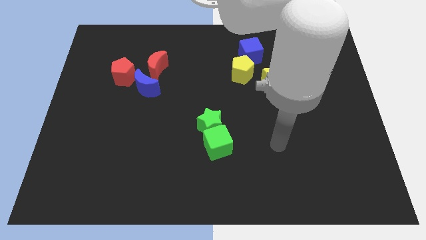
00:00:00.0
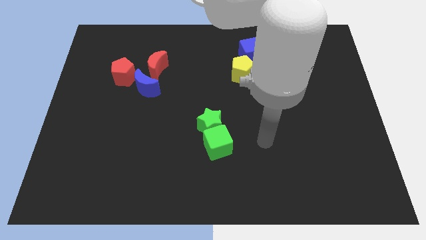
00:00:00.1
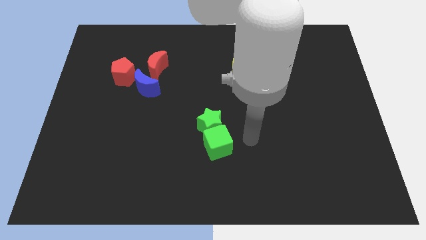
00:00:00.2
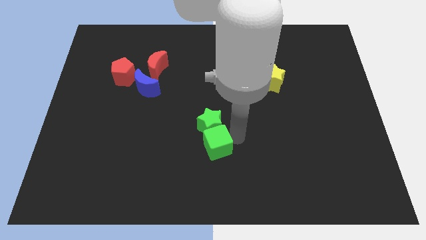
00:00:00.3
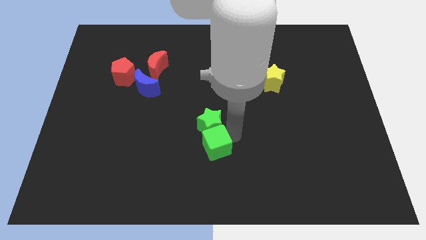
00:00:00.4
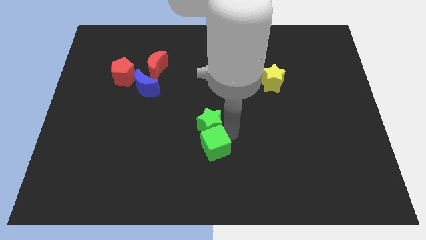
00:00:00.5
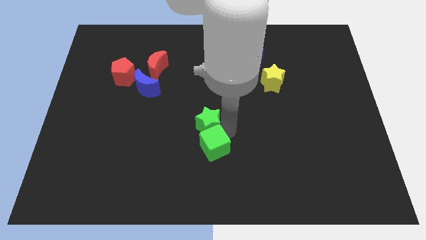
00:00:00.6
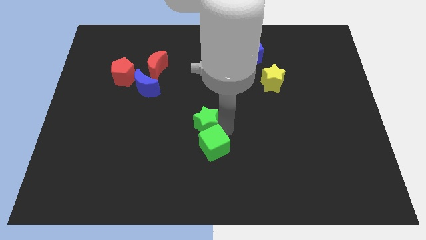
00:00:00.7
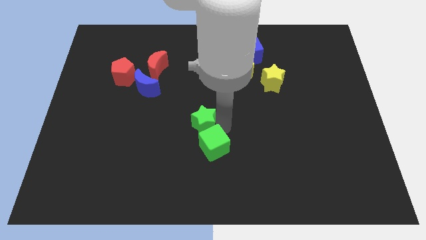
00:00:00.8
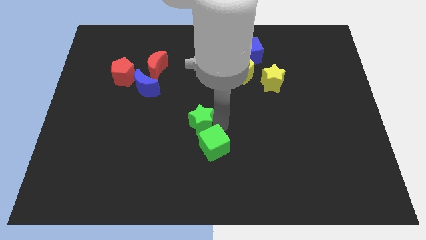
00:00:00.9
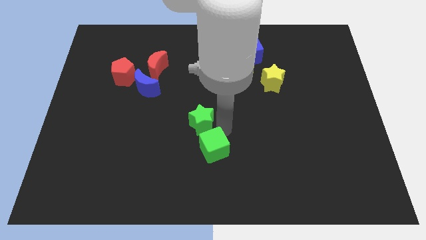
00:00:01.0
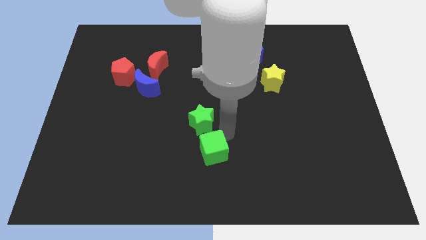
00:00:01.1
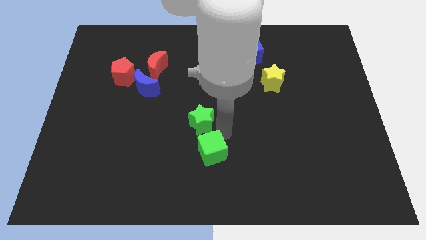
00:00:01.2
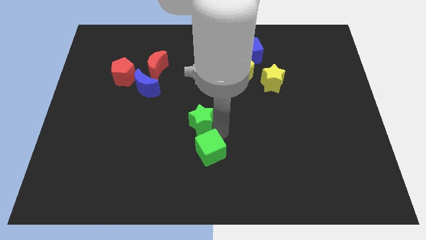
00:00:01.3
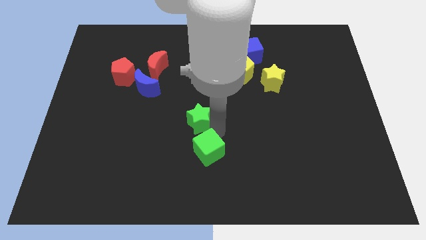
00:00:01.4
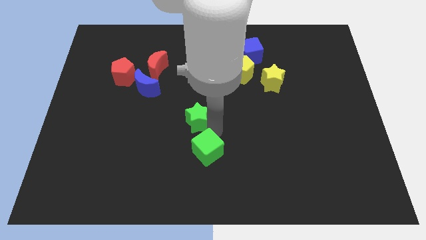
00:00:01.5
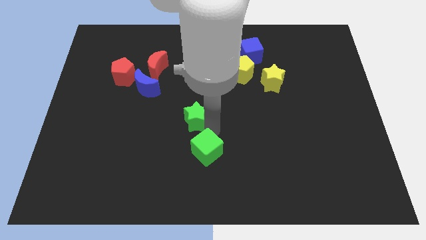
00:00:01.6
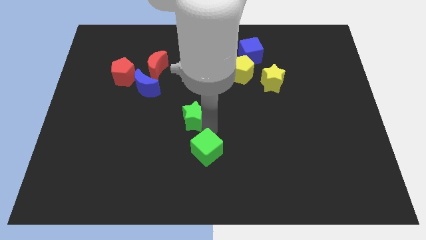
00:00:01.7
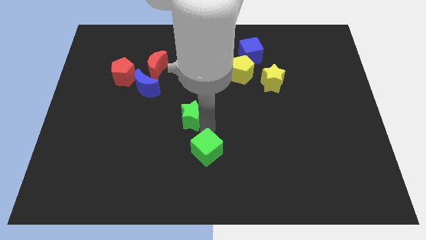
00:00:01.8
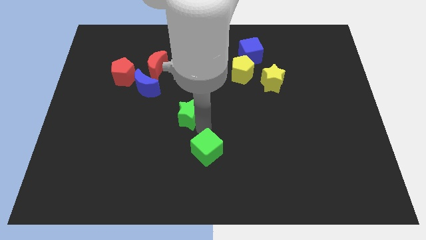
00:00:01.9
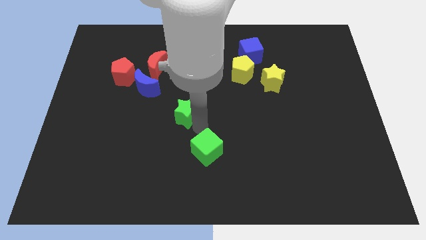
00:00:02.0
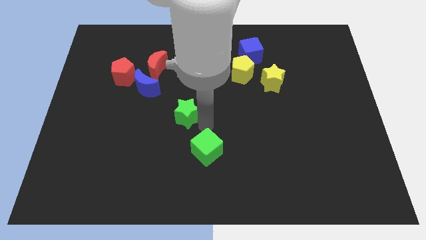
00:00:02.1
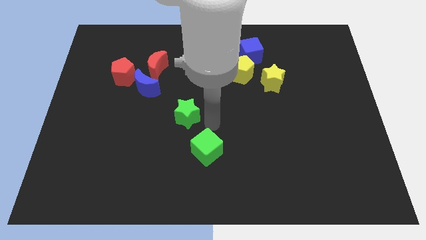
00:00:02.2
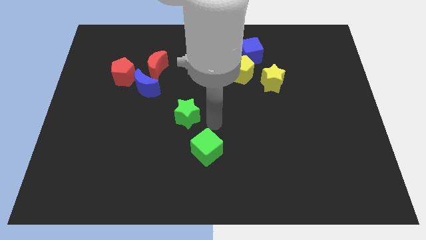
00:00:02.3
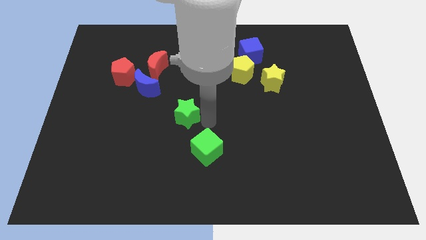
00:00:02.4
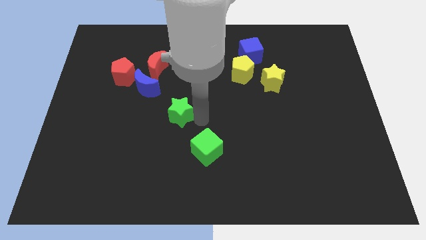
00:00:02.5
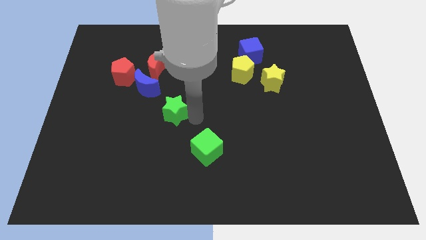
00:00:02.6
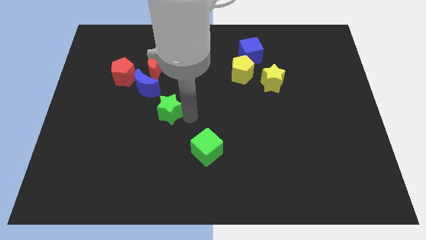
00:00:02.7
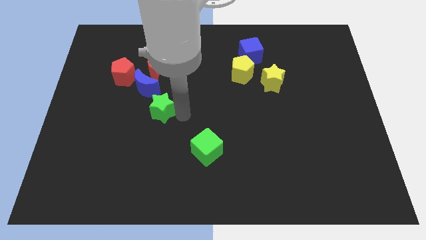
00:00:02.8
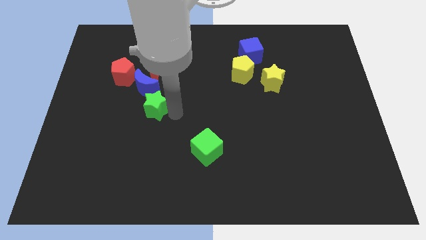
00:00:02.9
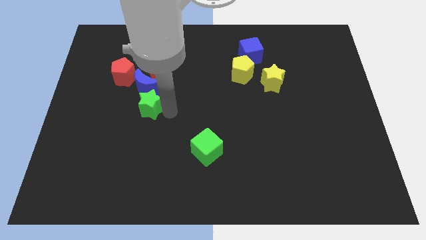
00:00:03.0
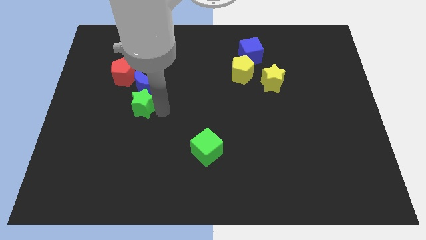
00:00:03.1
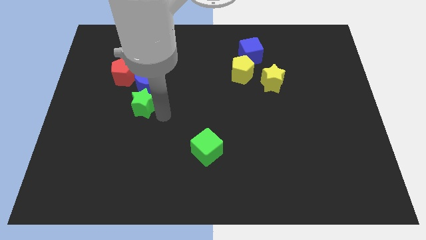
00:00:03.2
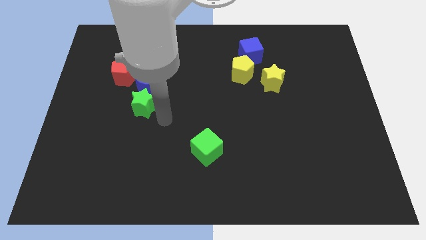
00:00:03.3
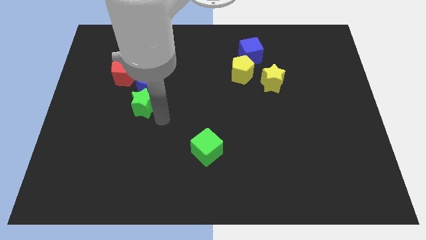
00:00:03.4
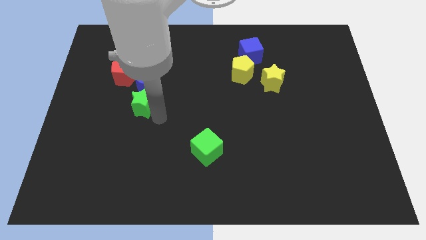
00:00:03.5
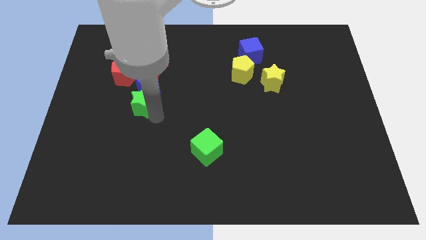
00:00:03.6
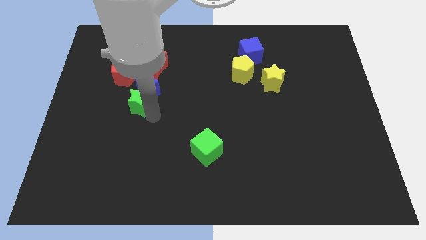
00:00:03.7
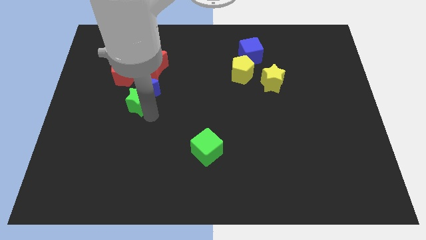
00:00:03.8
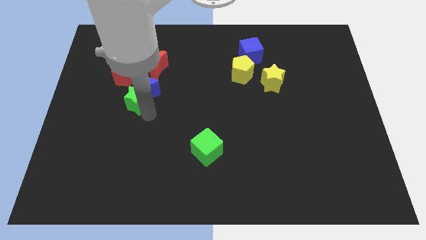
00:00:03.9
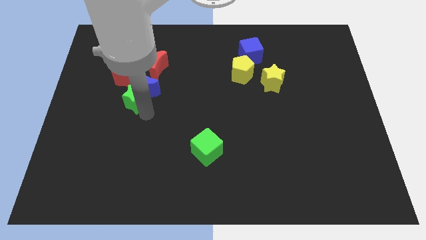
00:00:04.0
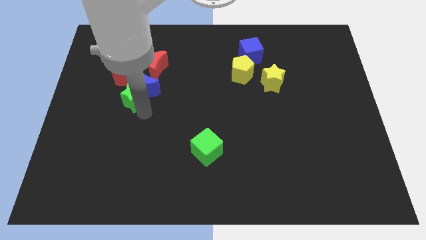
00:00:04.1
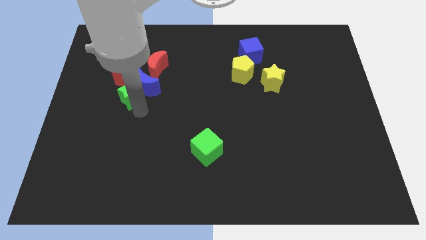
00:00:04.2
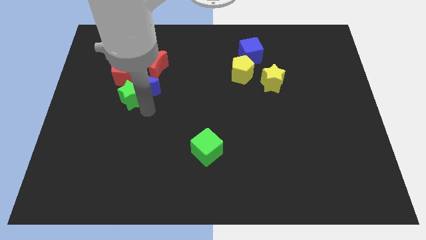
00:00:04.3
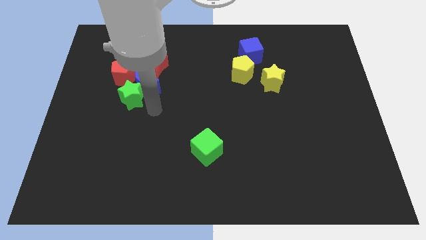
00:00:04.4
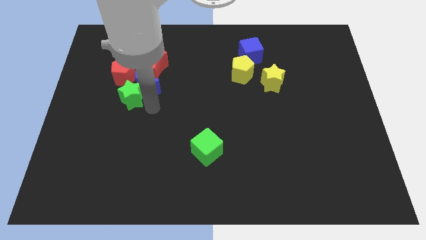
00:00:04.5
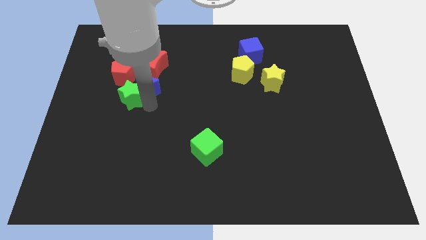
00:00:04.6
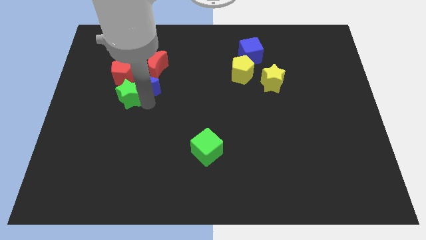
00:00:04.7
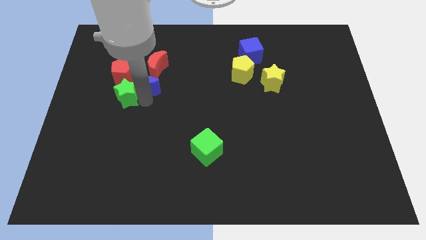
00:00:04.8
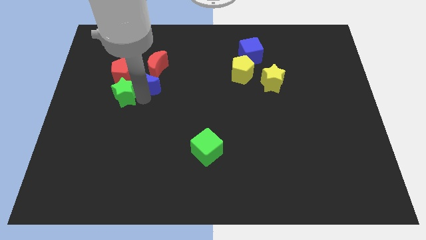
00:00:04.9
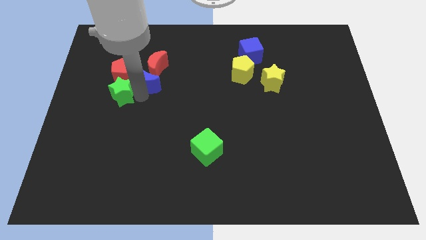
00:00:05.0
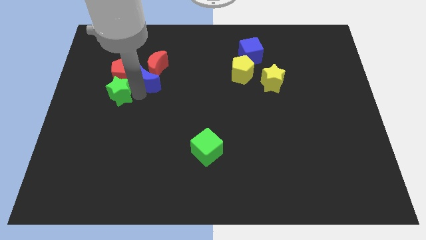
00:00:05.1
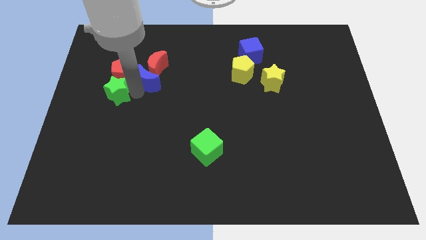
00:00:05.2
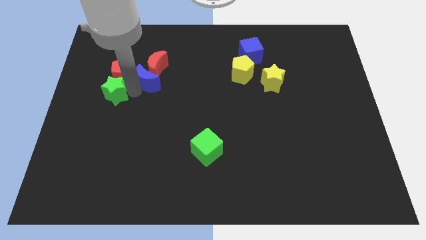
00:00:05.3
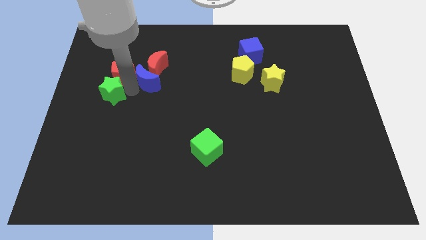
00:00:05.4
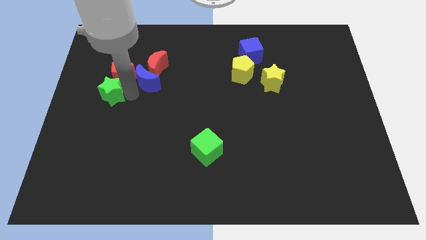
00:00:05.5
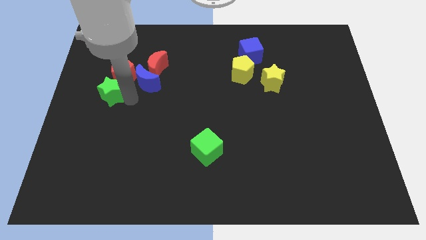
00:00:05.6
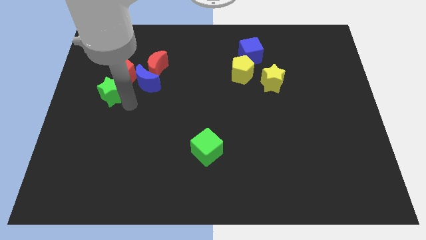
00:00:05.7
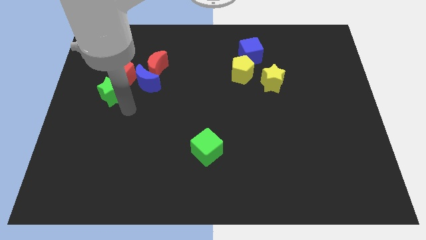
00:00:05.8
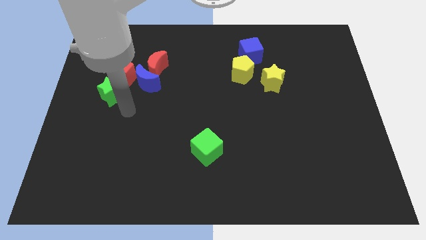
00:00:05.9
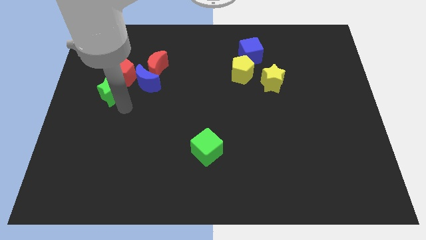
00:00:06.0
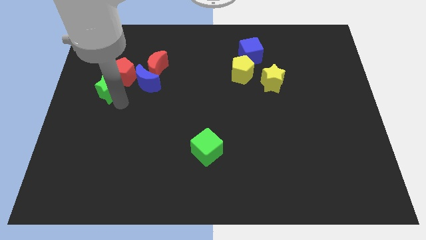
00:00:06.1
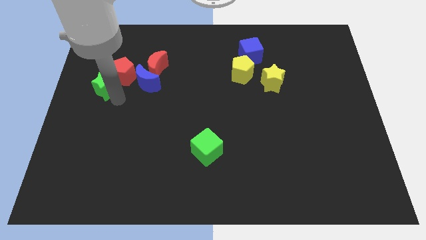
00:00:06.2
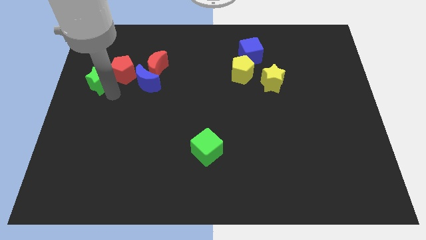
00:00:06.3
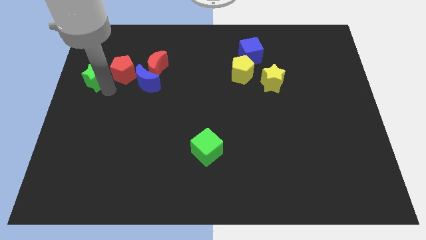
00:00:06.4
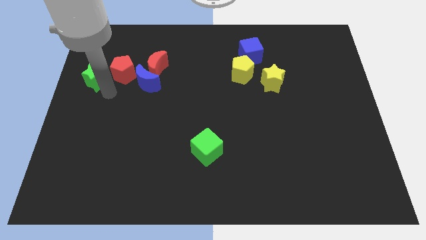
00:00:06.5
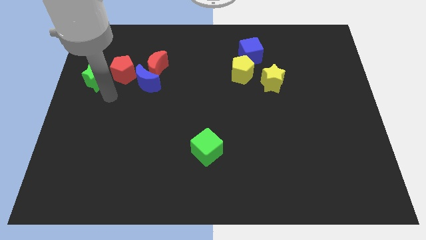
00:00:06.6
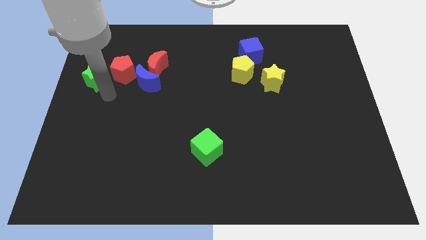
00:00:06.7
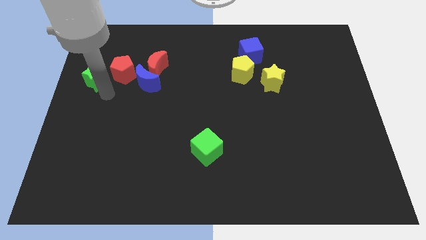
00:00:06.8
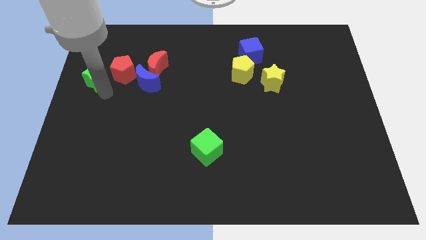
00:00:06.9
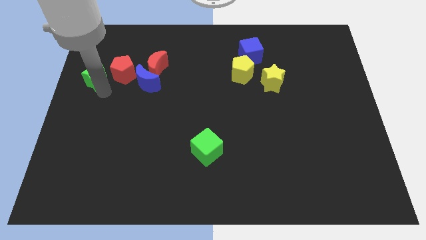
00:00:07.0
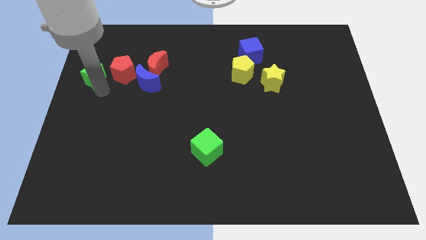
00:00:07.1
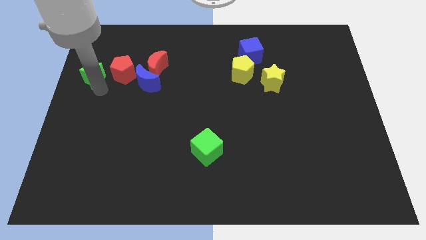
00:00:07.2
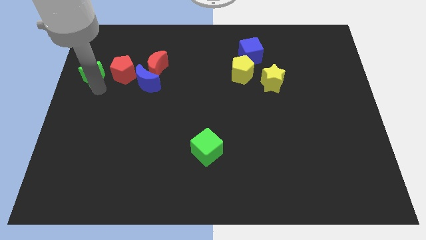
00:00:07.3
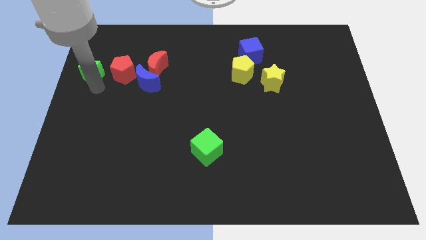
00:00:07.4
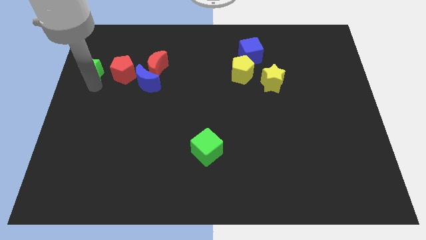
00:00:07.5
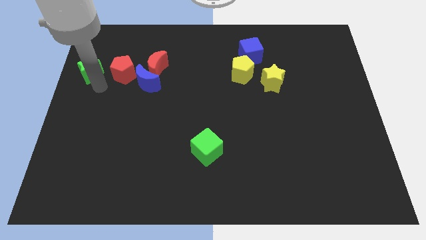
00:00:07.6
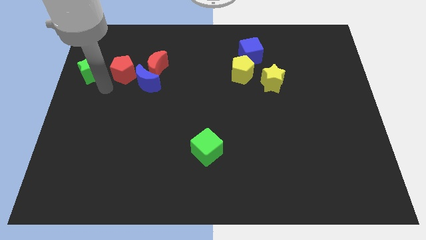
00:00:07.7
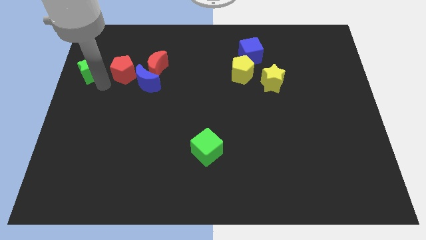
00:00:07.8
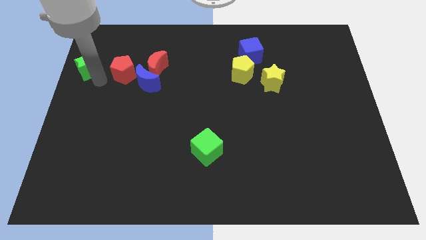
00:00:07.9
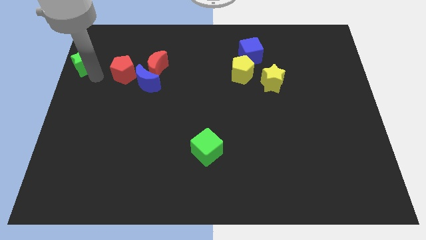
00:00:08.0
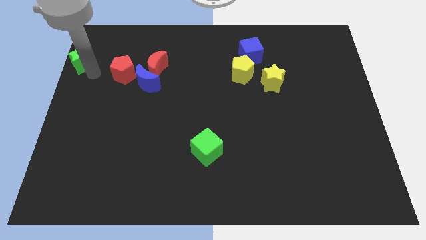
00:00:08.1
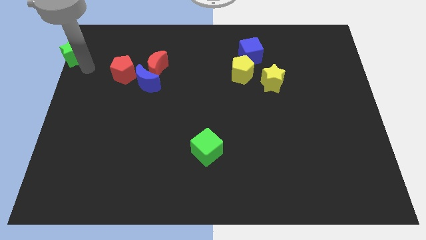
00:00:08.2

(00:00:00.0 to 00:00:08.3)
push the green star to the upper left corner
